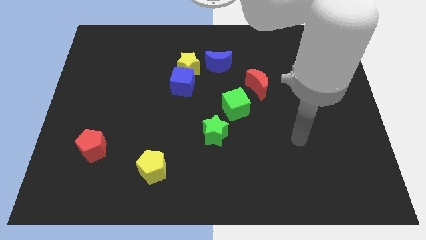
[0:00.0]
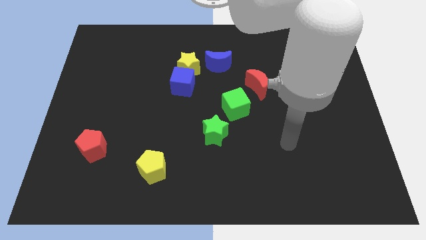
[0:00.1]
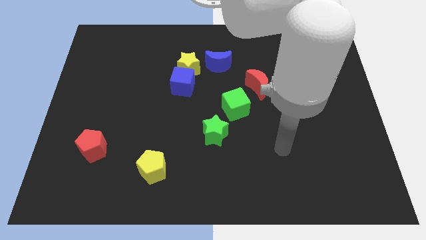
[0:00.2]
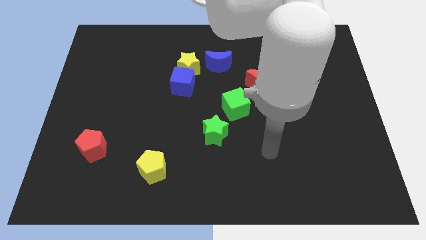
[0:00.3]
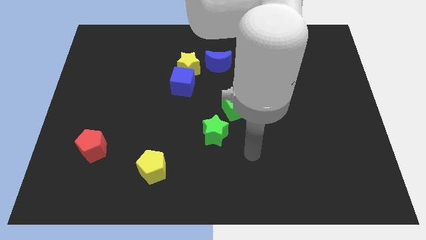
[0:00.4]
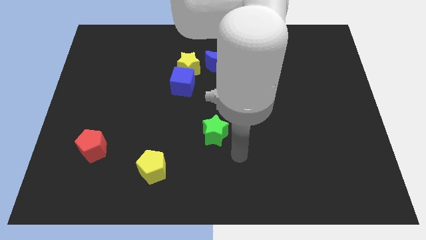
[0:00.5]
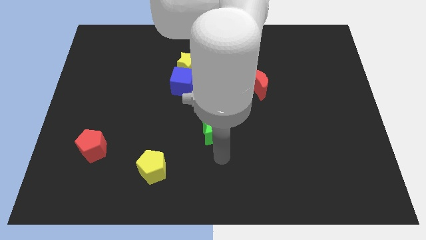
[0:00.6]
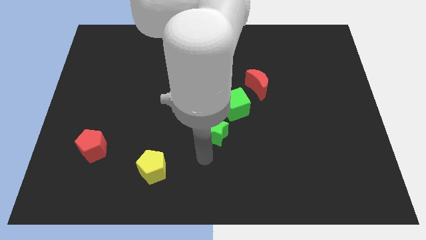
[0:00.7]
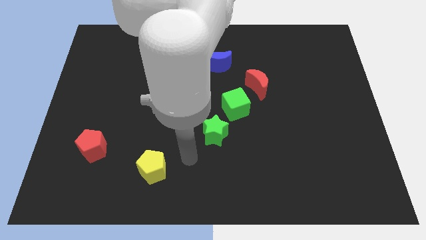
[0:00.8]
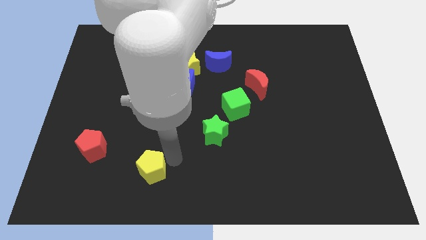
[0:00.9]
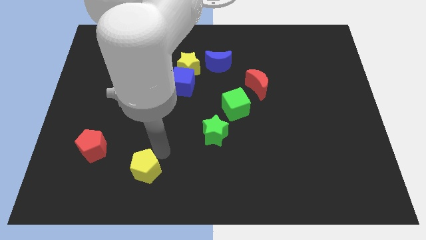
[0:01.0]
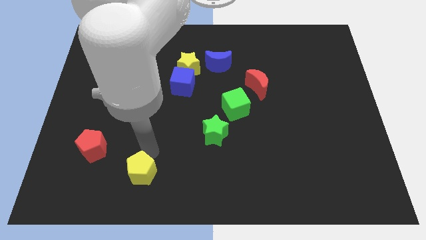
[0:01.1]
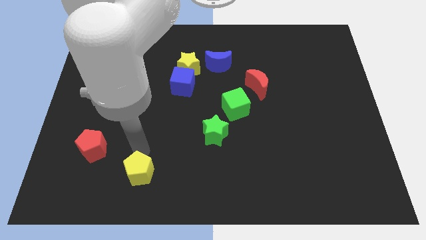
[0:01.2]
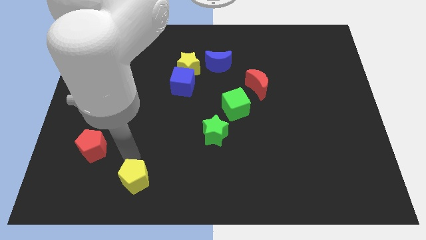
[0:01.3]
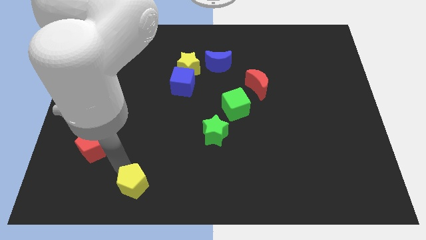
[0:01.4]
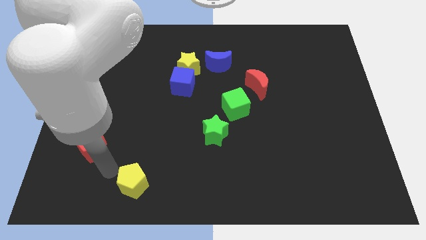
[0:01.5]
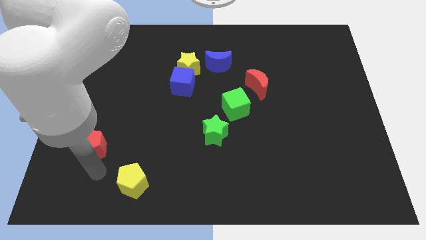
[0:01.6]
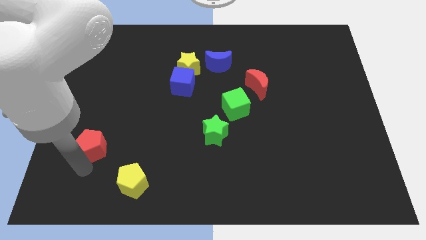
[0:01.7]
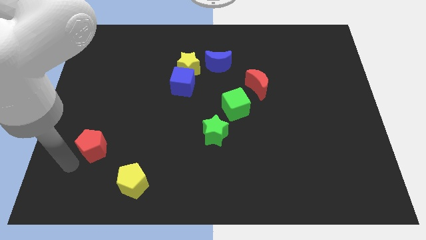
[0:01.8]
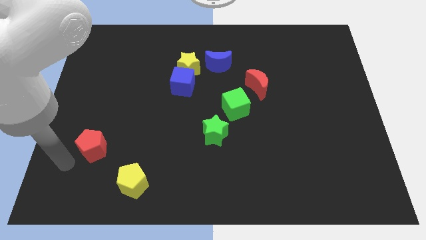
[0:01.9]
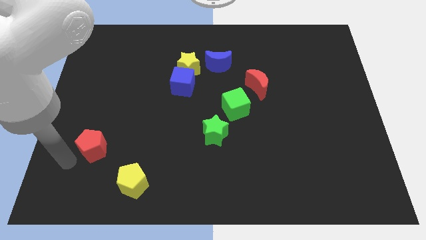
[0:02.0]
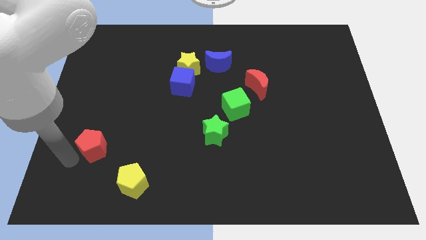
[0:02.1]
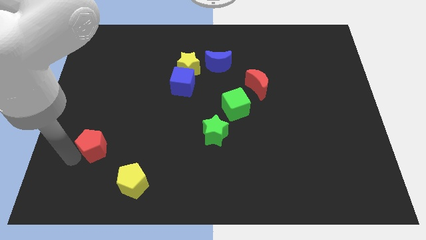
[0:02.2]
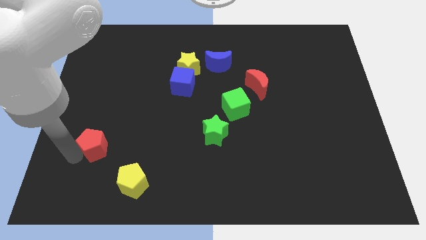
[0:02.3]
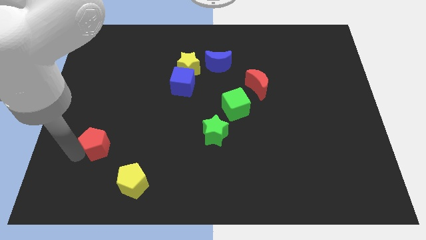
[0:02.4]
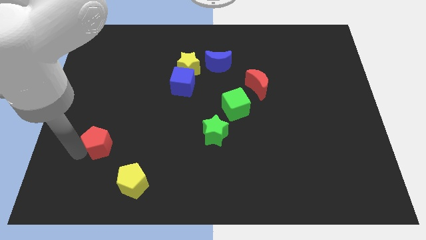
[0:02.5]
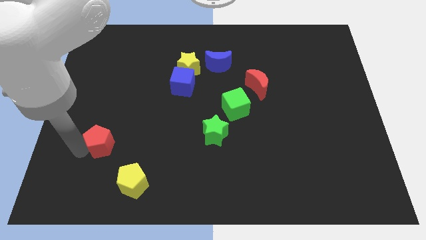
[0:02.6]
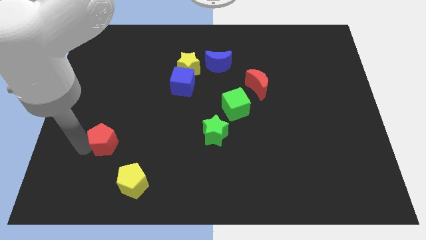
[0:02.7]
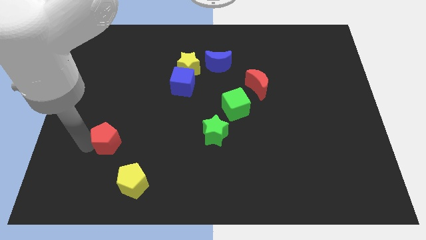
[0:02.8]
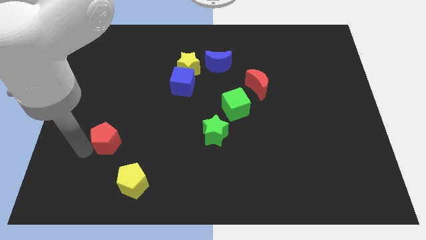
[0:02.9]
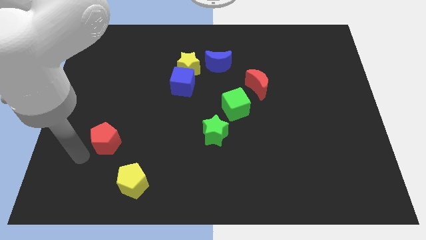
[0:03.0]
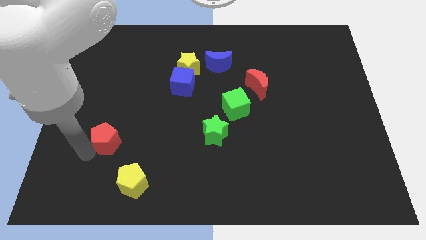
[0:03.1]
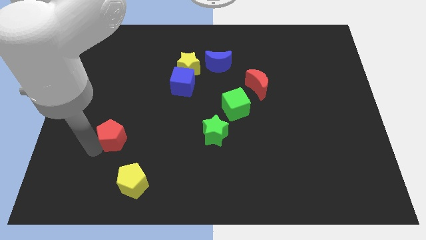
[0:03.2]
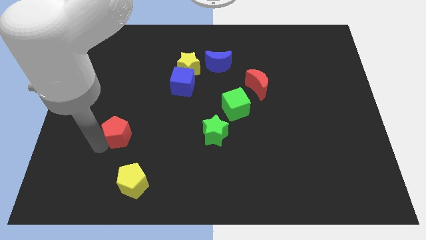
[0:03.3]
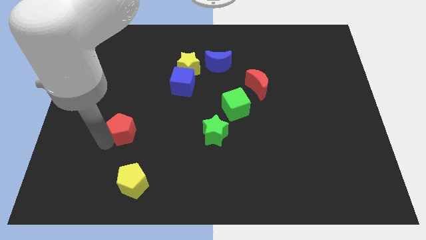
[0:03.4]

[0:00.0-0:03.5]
slide the red pentagon up and right a bit

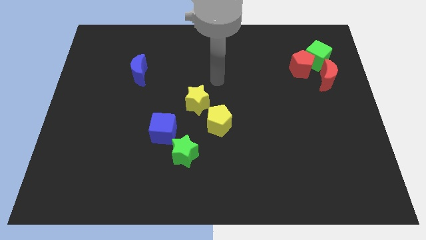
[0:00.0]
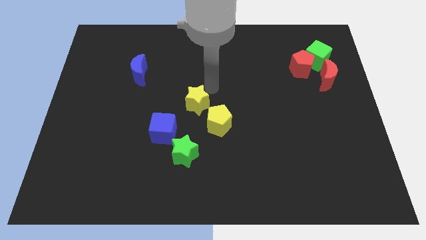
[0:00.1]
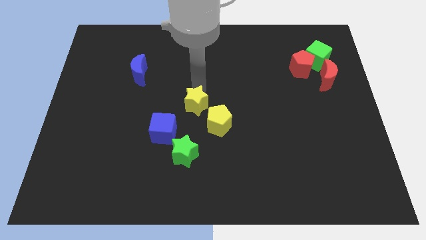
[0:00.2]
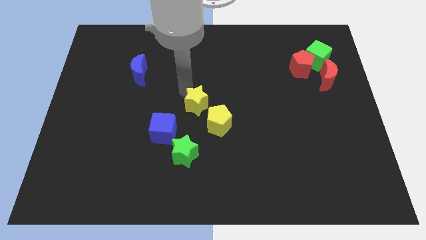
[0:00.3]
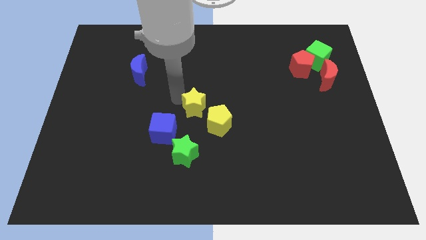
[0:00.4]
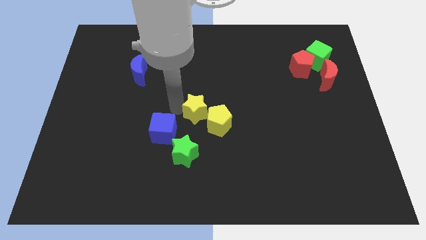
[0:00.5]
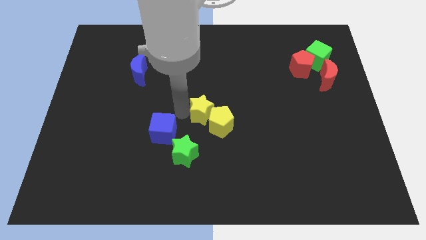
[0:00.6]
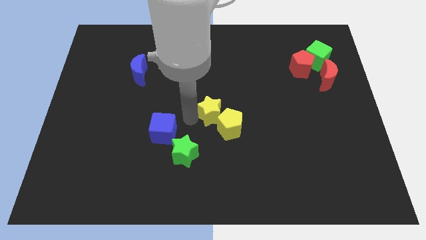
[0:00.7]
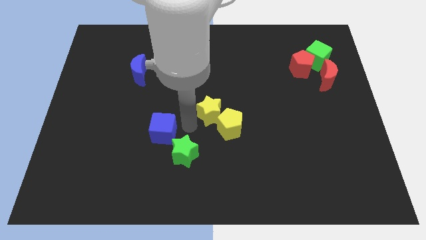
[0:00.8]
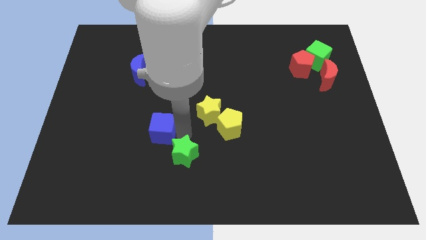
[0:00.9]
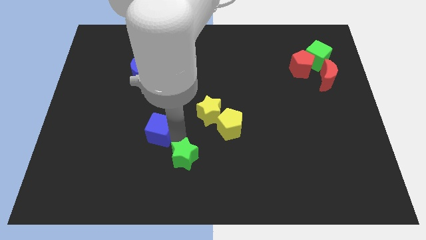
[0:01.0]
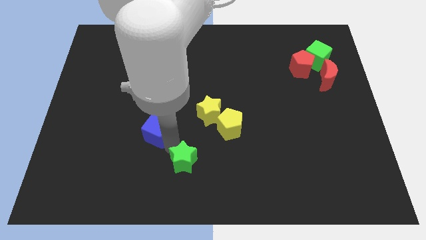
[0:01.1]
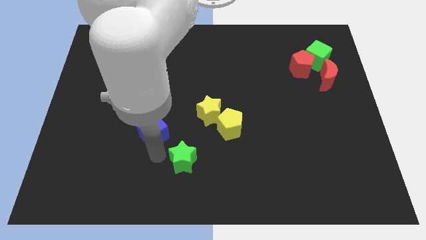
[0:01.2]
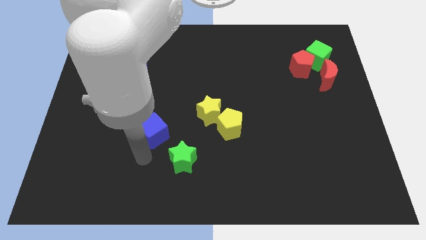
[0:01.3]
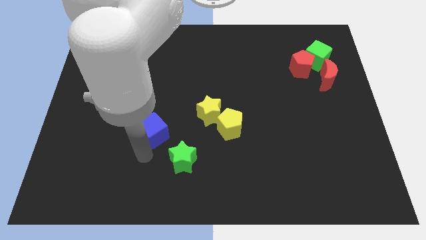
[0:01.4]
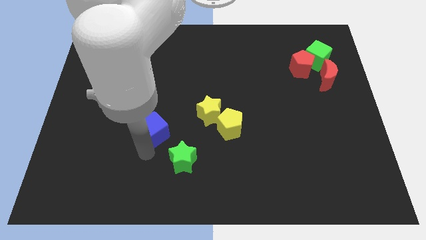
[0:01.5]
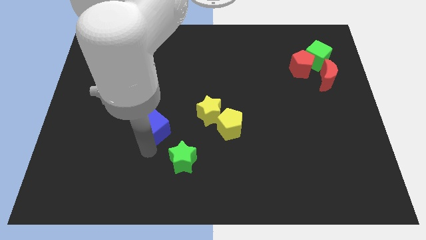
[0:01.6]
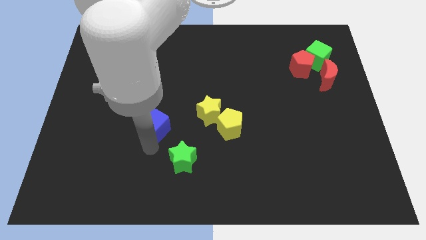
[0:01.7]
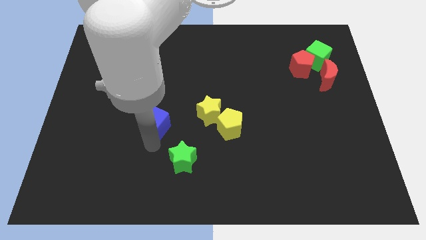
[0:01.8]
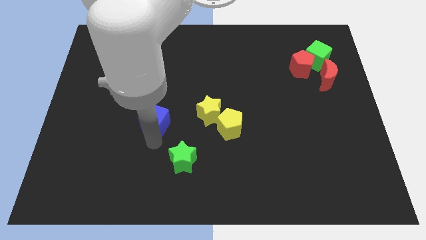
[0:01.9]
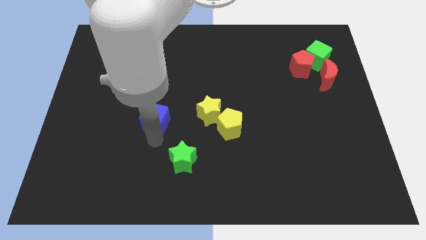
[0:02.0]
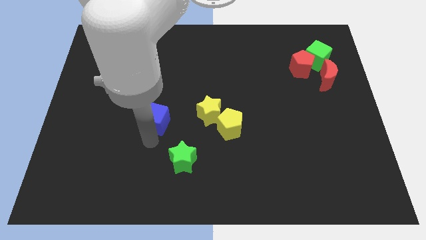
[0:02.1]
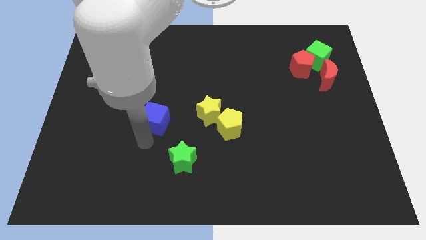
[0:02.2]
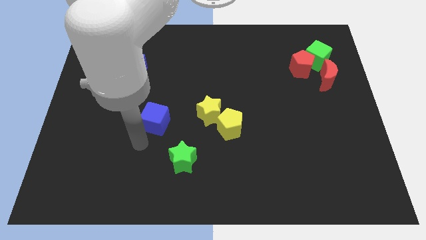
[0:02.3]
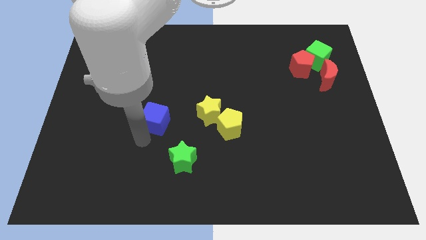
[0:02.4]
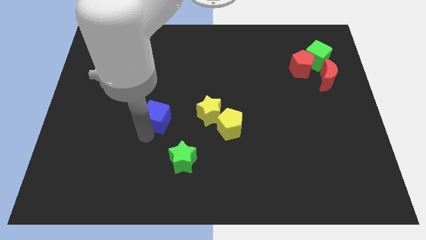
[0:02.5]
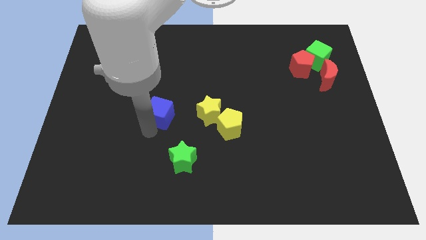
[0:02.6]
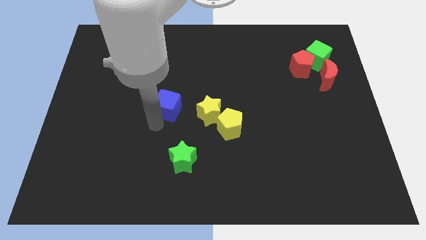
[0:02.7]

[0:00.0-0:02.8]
slide the blue cube a little up

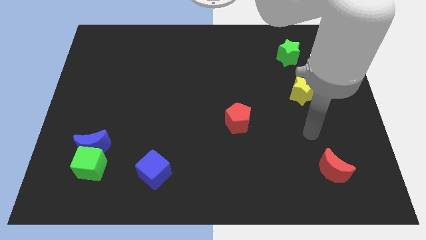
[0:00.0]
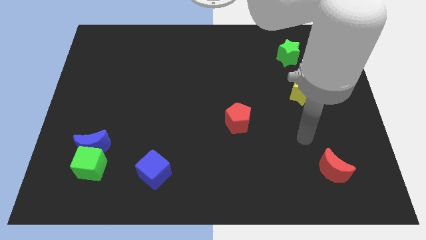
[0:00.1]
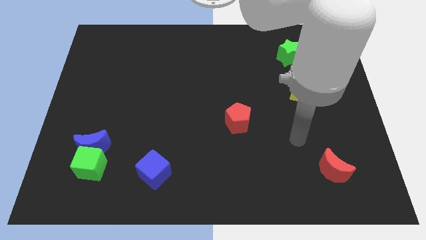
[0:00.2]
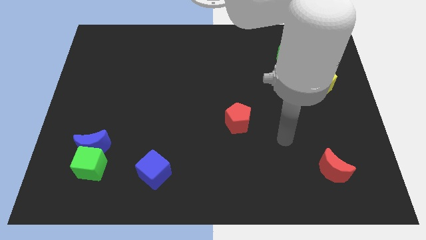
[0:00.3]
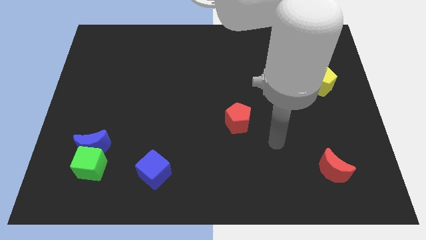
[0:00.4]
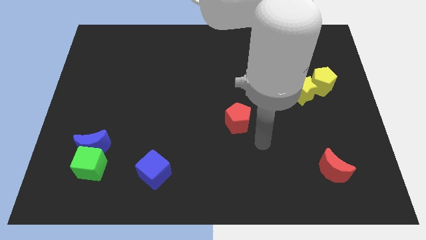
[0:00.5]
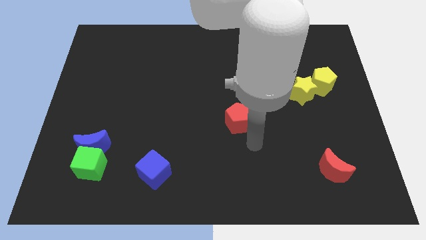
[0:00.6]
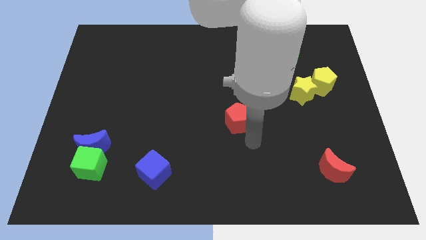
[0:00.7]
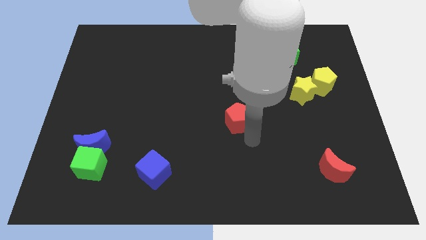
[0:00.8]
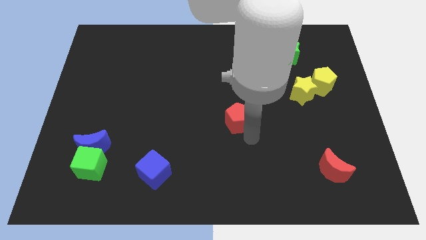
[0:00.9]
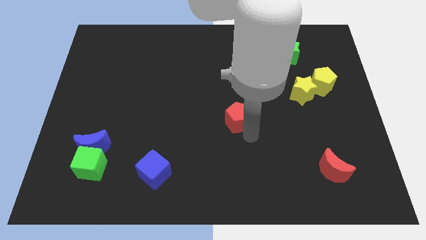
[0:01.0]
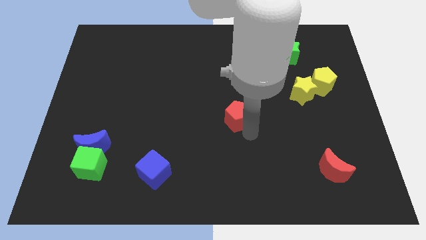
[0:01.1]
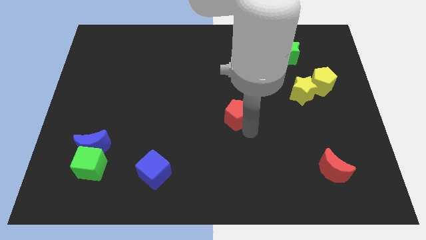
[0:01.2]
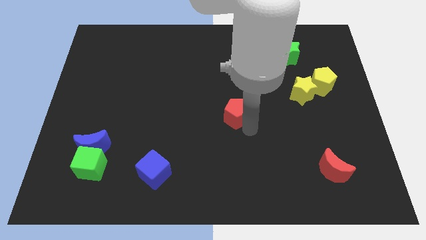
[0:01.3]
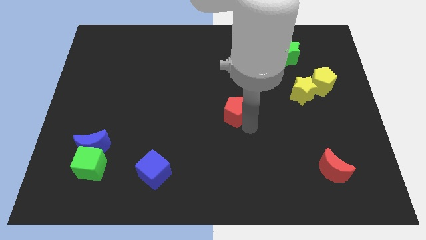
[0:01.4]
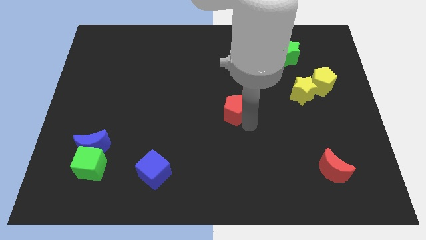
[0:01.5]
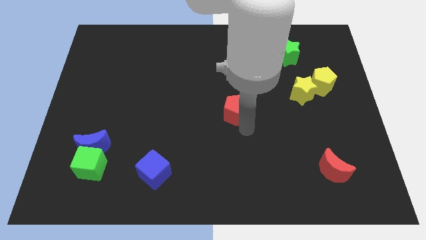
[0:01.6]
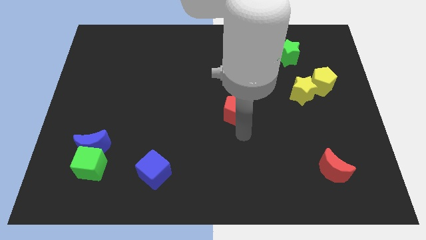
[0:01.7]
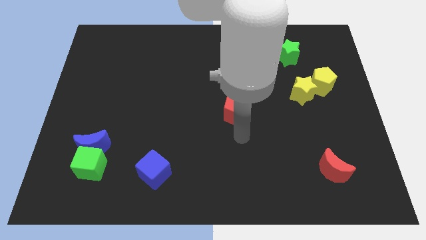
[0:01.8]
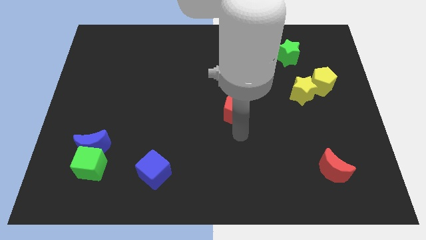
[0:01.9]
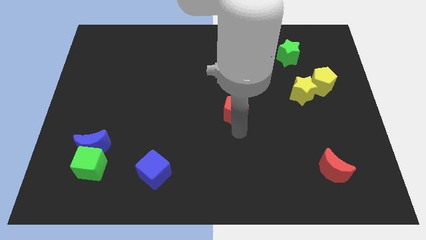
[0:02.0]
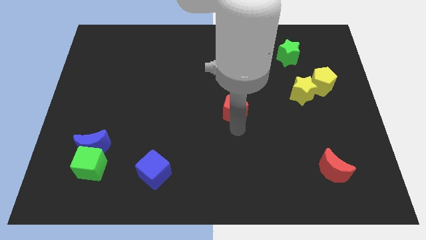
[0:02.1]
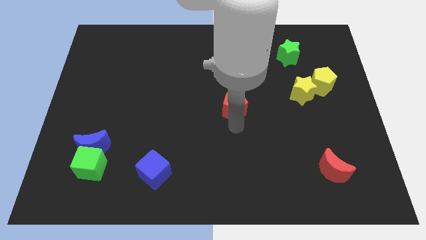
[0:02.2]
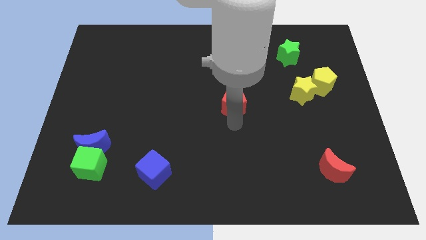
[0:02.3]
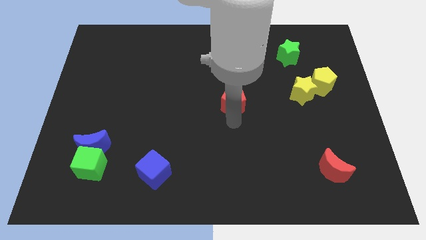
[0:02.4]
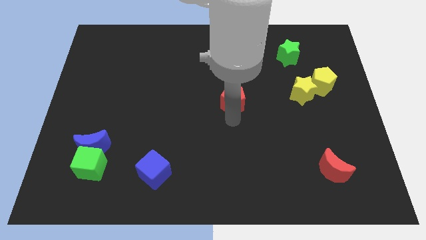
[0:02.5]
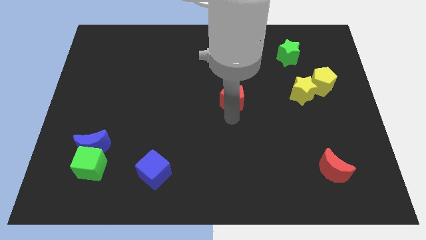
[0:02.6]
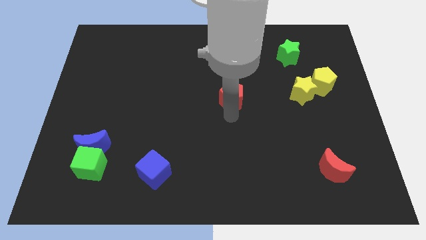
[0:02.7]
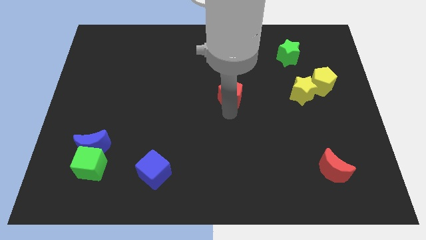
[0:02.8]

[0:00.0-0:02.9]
slightly push the red pentagon upwards
